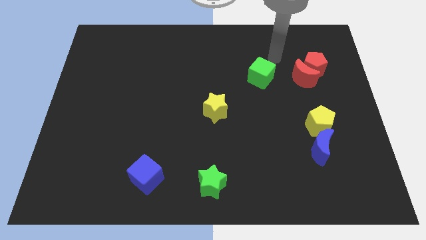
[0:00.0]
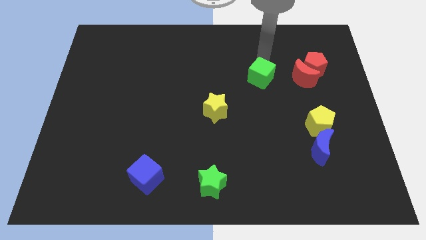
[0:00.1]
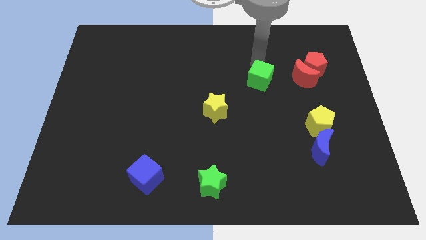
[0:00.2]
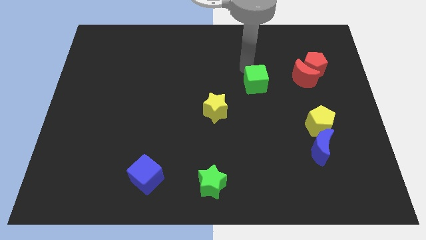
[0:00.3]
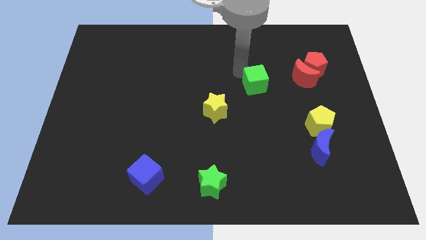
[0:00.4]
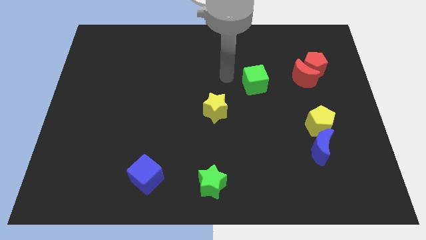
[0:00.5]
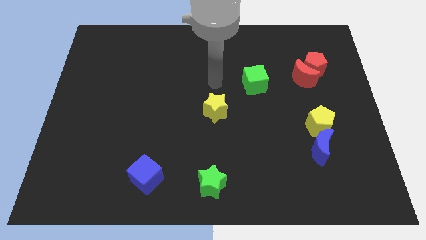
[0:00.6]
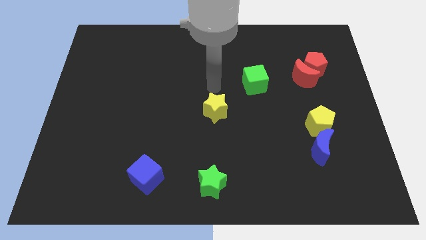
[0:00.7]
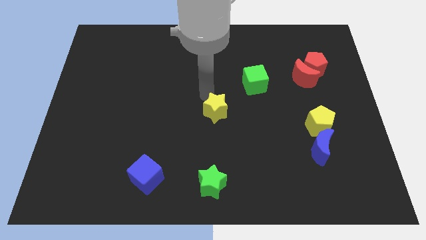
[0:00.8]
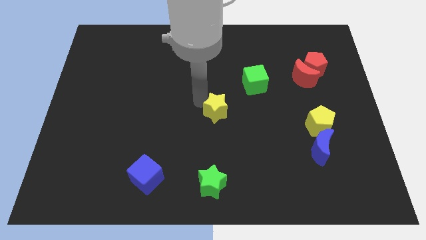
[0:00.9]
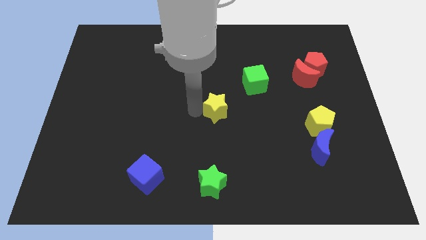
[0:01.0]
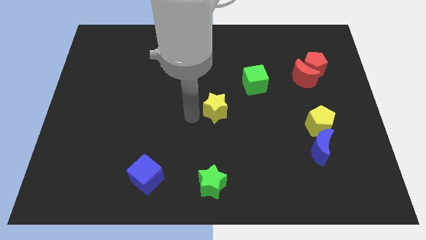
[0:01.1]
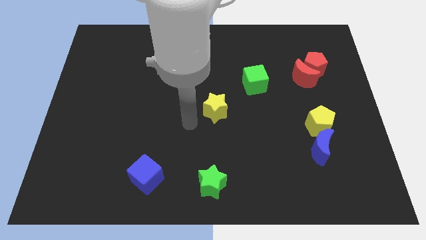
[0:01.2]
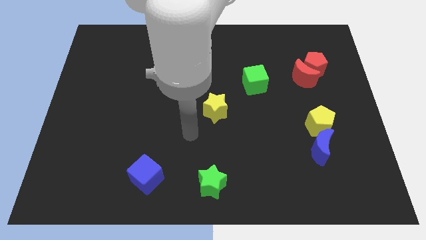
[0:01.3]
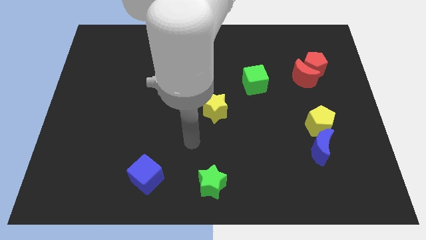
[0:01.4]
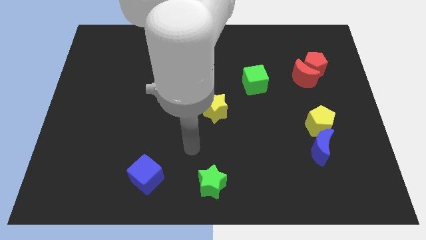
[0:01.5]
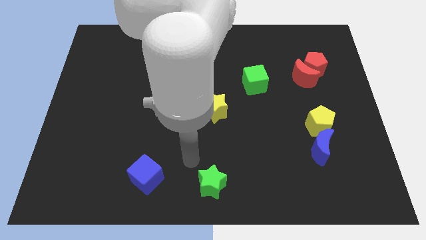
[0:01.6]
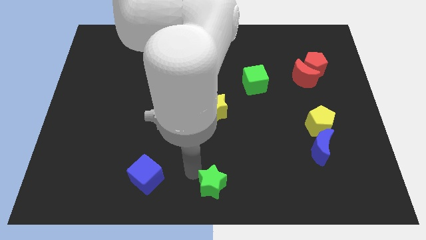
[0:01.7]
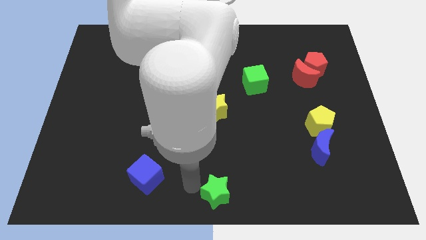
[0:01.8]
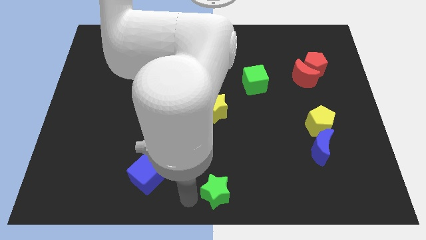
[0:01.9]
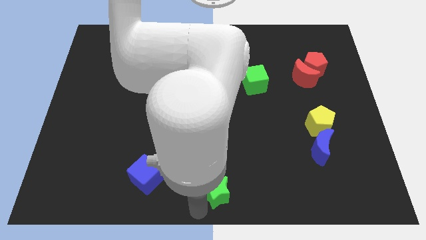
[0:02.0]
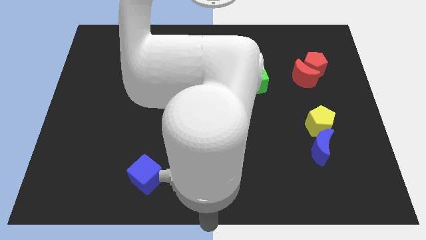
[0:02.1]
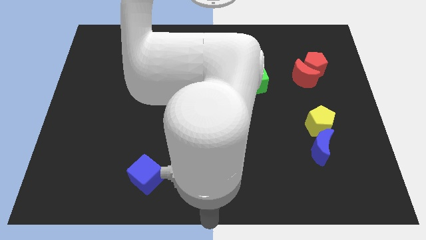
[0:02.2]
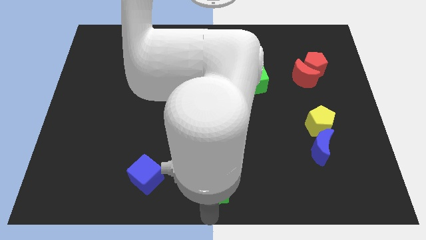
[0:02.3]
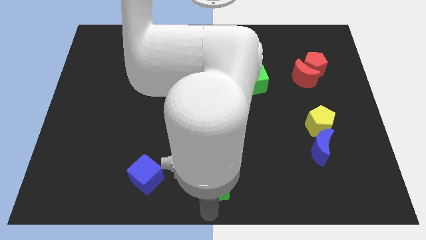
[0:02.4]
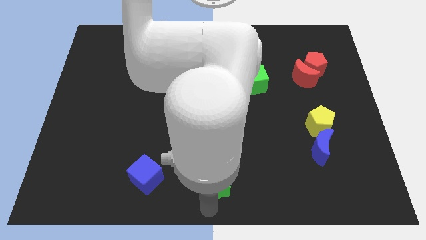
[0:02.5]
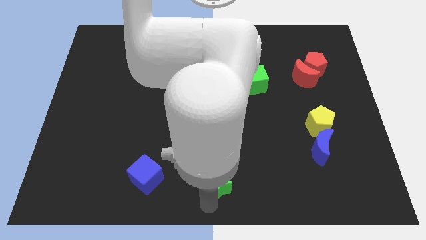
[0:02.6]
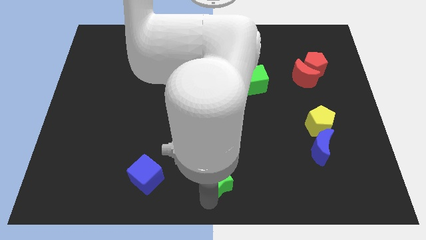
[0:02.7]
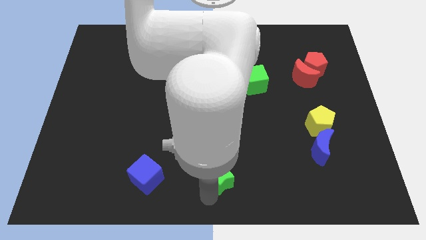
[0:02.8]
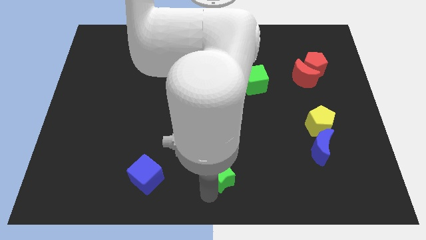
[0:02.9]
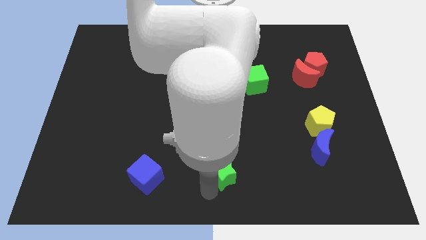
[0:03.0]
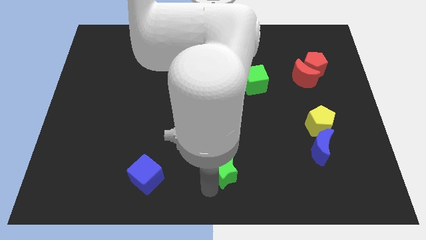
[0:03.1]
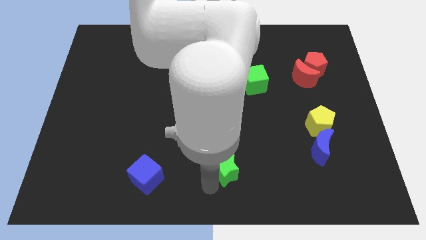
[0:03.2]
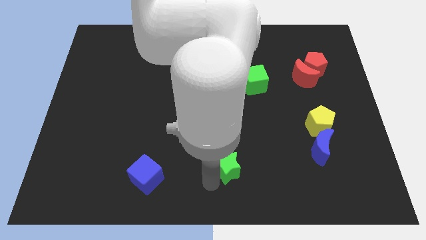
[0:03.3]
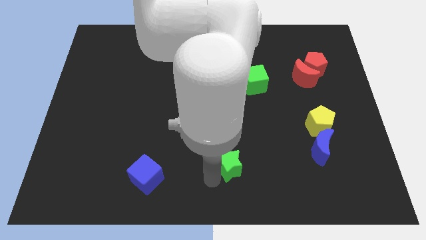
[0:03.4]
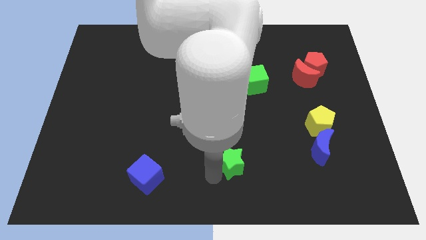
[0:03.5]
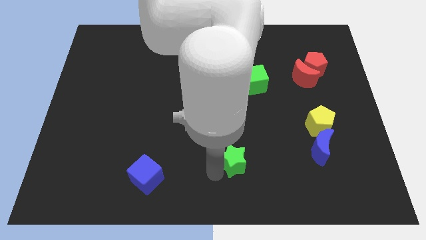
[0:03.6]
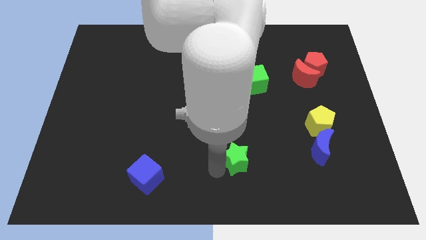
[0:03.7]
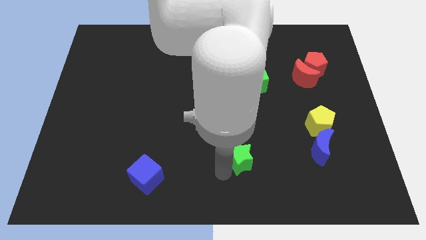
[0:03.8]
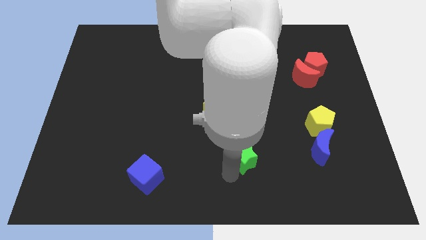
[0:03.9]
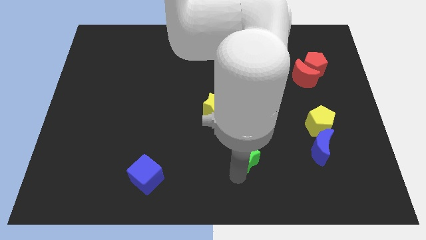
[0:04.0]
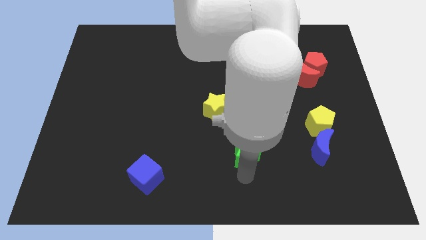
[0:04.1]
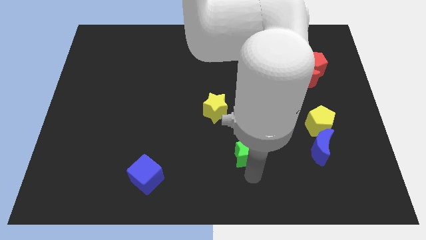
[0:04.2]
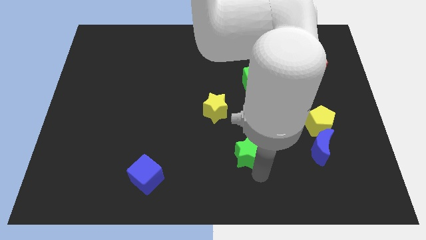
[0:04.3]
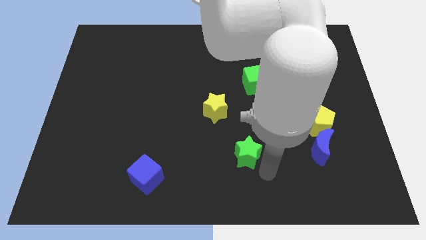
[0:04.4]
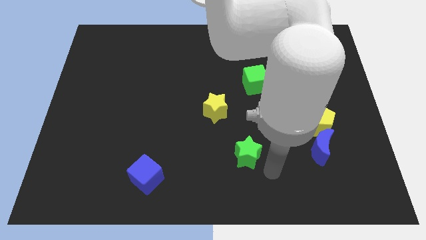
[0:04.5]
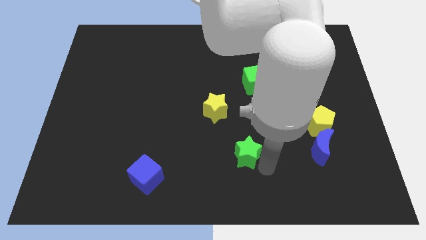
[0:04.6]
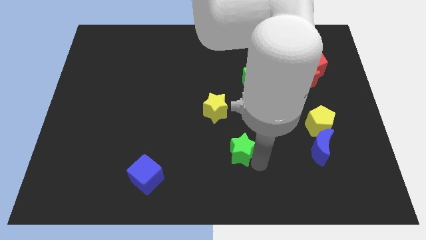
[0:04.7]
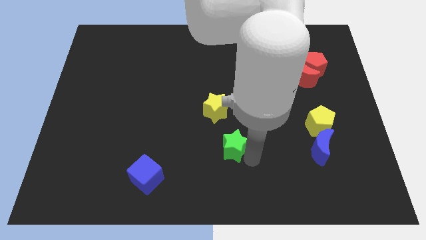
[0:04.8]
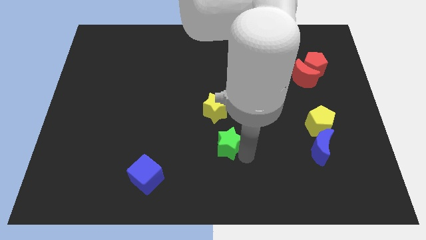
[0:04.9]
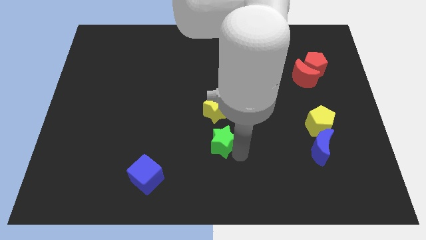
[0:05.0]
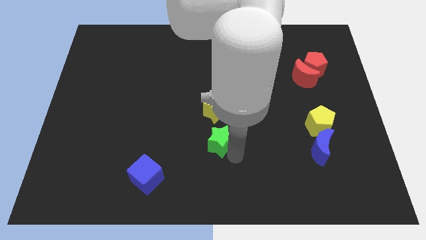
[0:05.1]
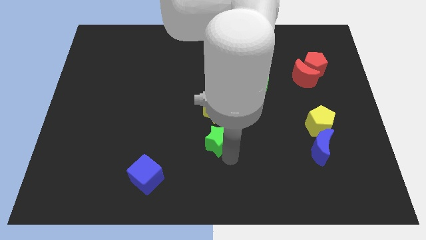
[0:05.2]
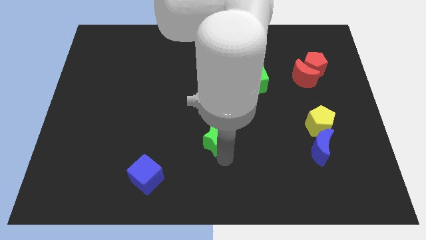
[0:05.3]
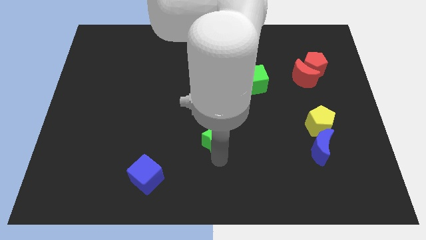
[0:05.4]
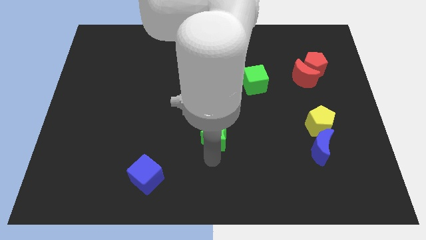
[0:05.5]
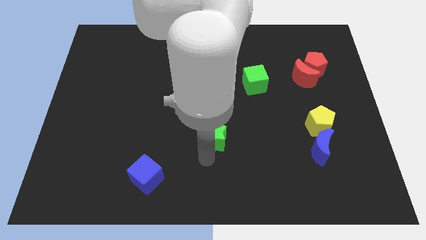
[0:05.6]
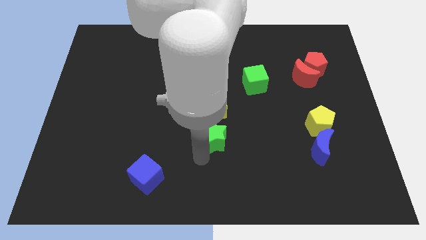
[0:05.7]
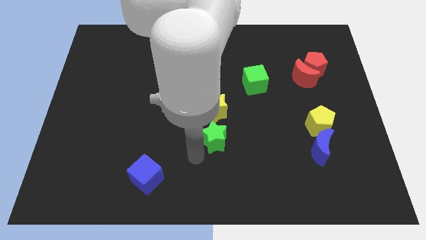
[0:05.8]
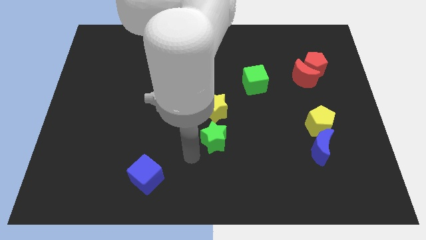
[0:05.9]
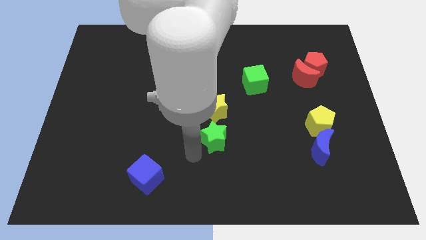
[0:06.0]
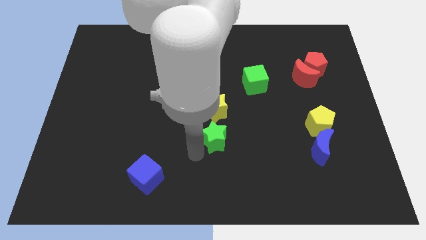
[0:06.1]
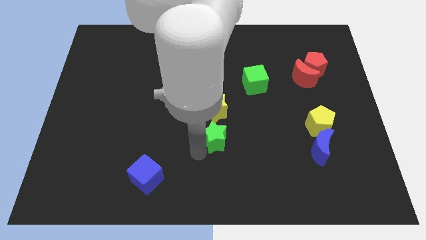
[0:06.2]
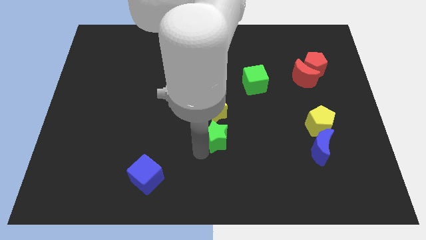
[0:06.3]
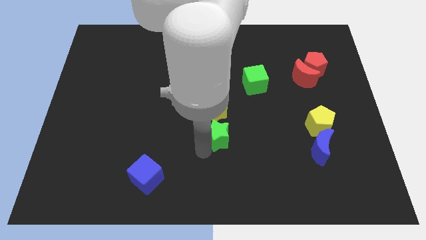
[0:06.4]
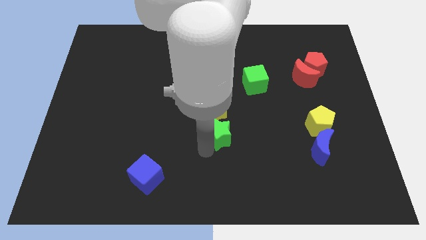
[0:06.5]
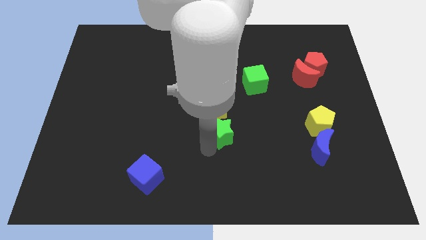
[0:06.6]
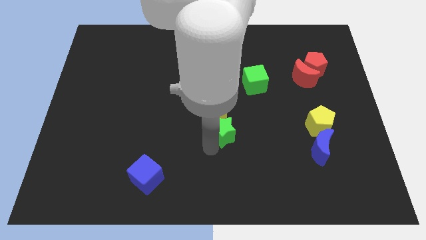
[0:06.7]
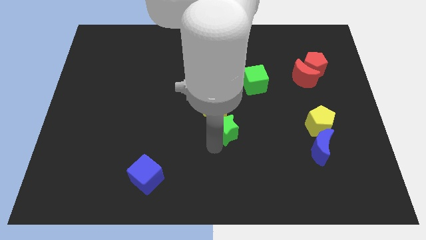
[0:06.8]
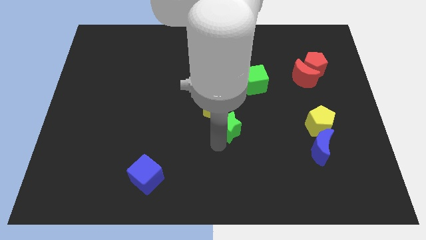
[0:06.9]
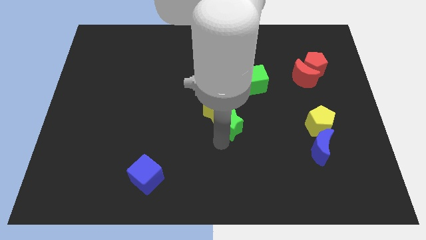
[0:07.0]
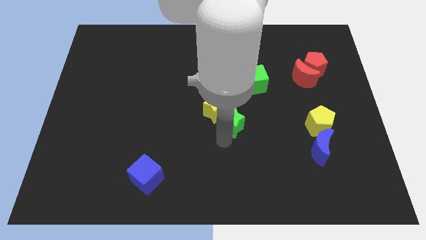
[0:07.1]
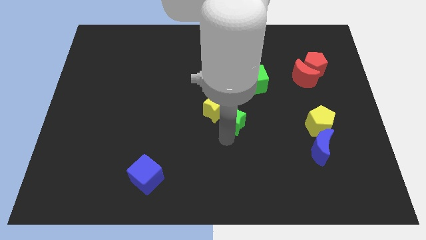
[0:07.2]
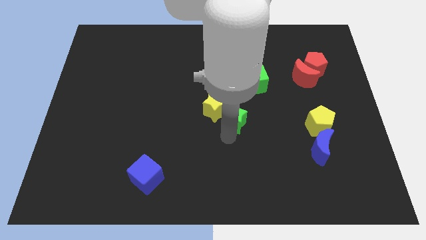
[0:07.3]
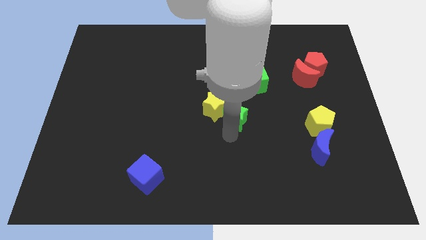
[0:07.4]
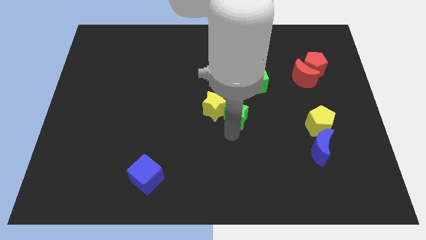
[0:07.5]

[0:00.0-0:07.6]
move the green star to the bottom left side of the green cube

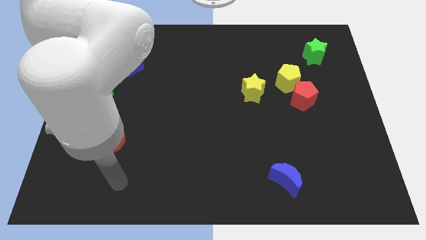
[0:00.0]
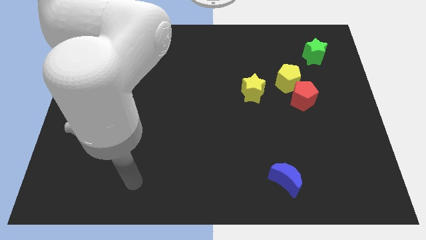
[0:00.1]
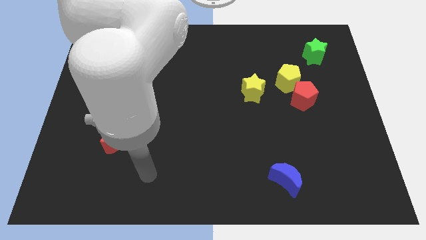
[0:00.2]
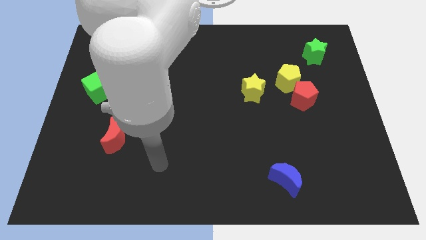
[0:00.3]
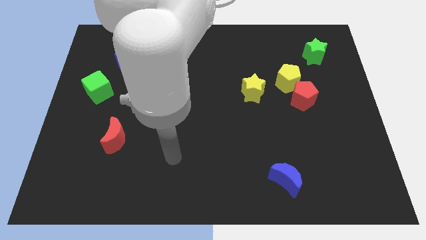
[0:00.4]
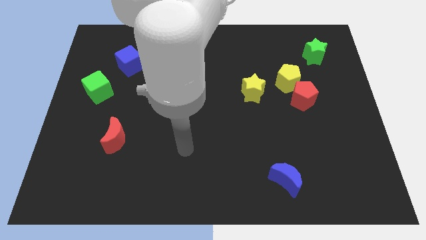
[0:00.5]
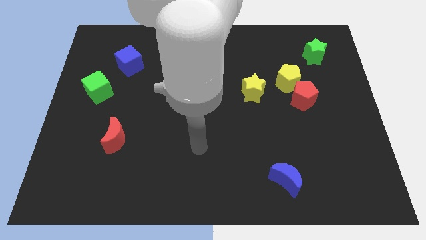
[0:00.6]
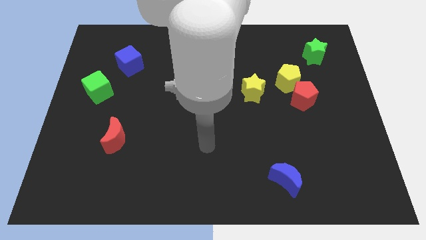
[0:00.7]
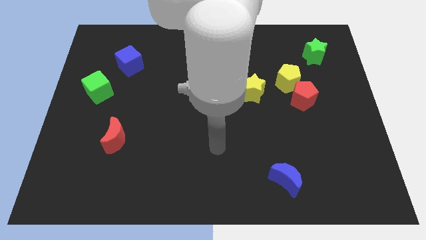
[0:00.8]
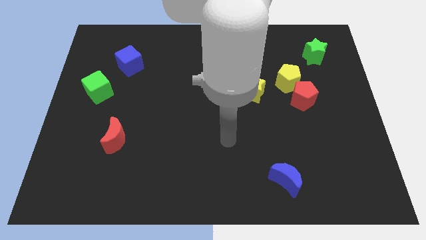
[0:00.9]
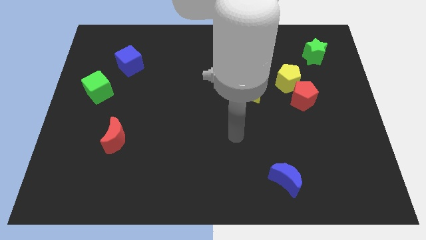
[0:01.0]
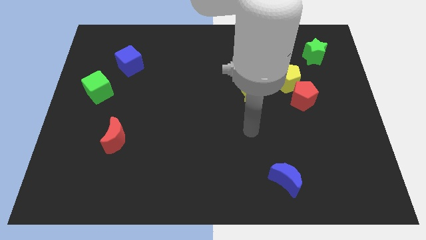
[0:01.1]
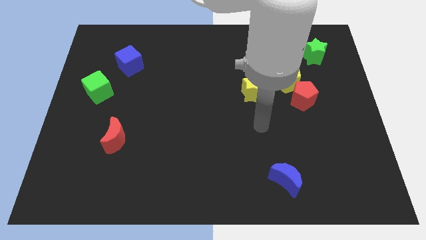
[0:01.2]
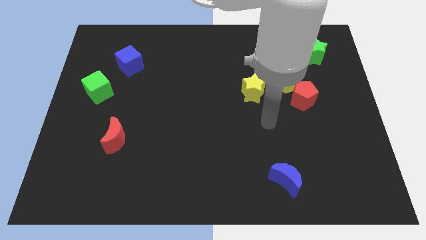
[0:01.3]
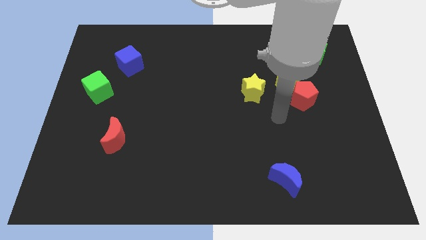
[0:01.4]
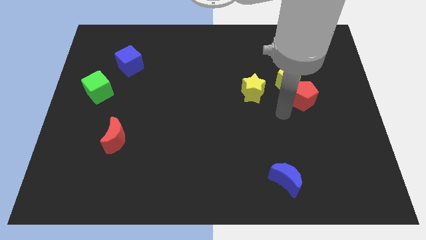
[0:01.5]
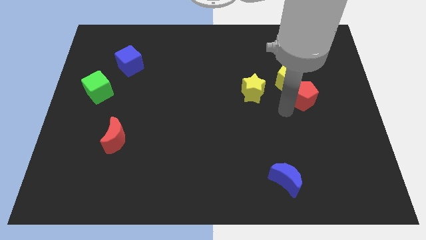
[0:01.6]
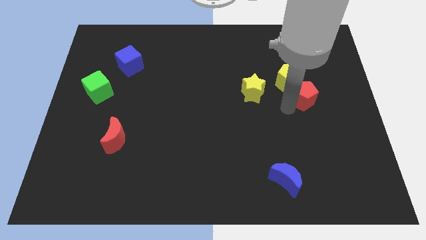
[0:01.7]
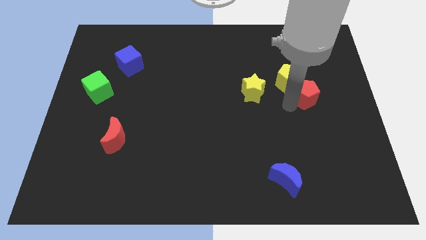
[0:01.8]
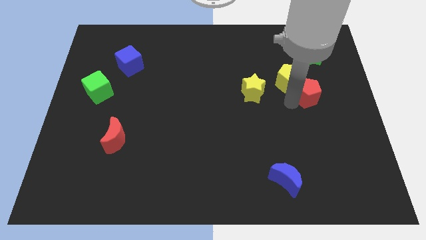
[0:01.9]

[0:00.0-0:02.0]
put the red pentagon just right of the yellow pentagon
